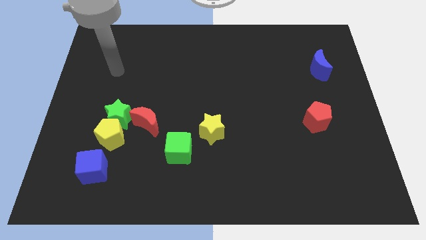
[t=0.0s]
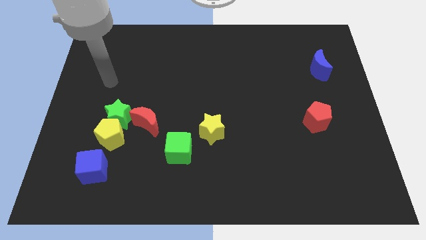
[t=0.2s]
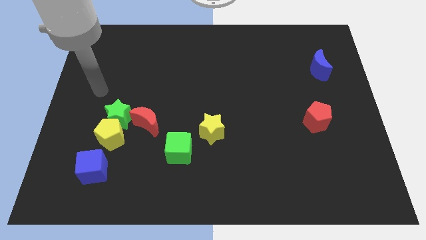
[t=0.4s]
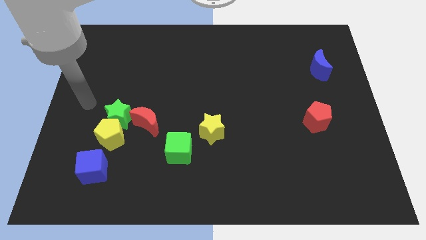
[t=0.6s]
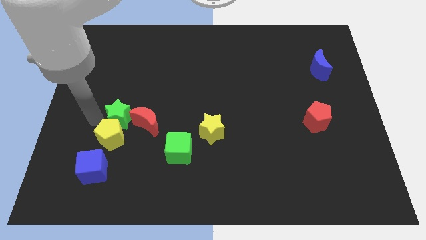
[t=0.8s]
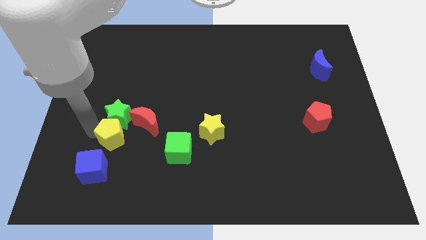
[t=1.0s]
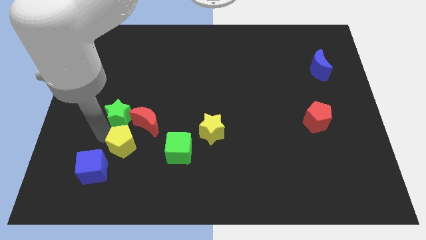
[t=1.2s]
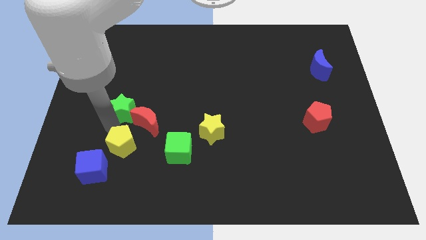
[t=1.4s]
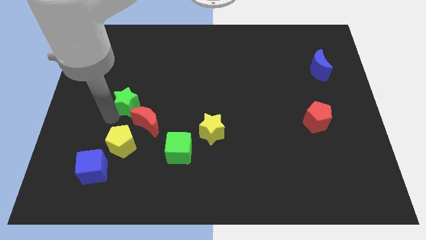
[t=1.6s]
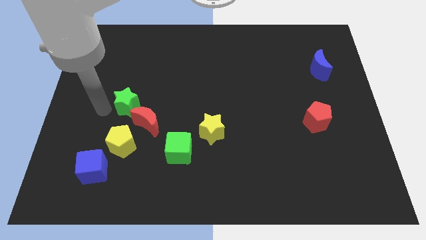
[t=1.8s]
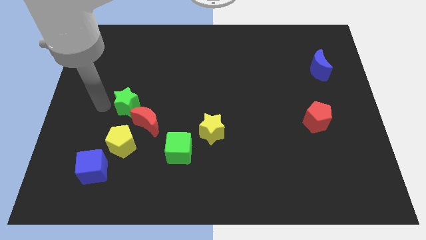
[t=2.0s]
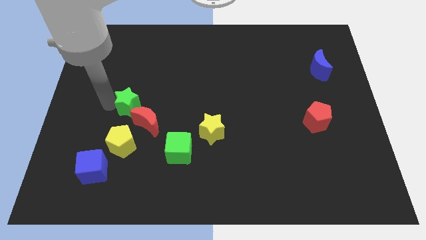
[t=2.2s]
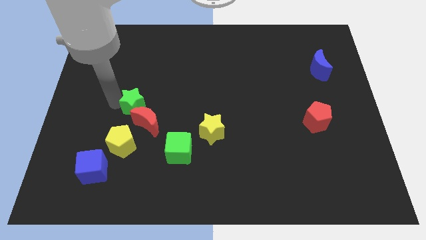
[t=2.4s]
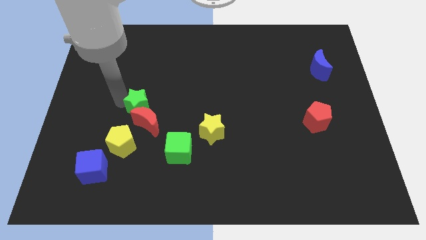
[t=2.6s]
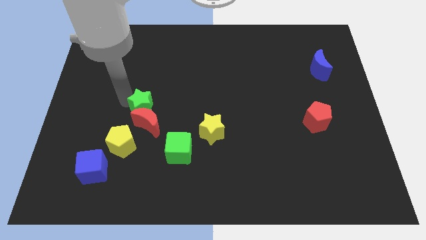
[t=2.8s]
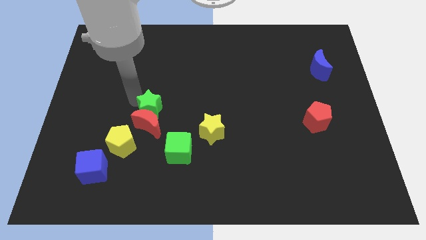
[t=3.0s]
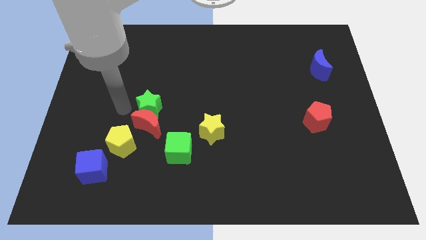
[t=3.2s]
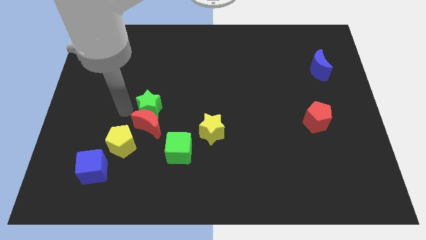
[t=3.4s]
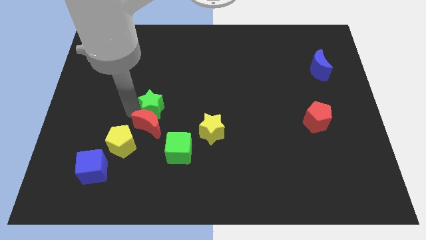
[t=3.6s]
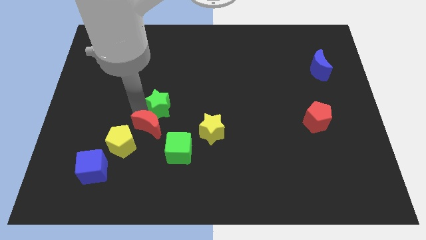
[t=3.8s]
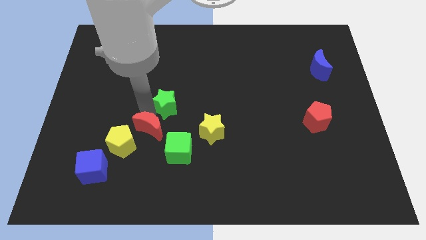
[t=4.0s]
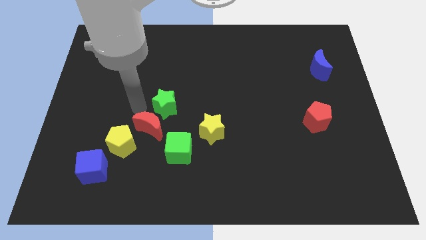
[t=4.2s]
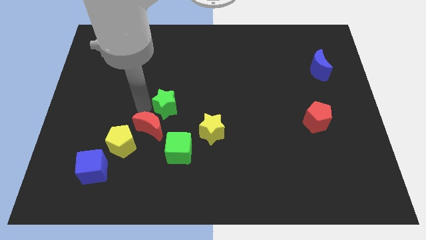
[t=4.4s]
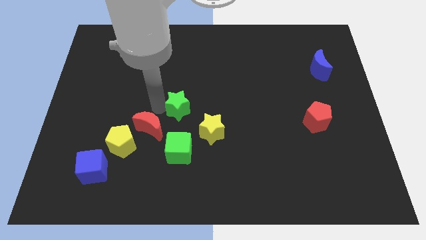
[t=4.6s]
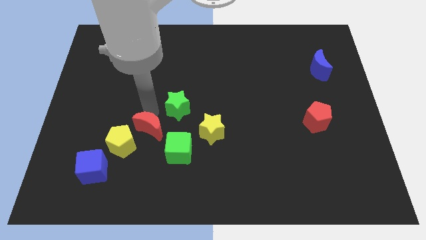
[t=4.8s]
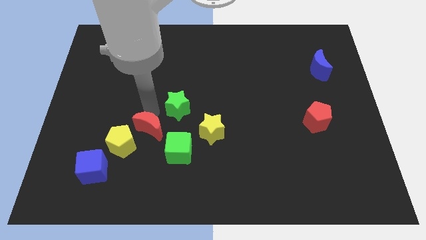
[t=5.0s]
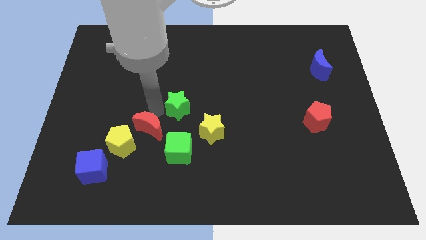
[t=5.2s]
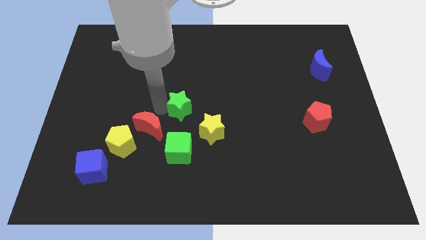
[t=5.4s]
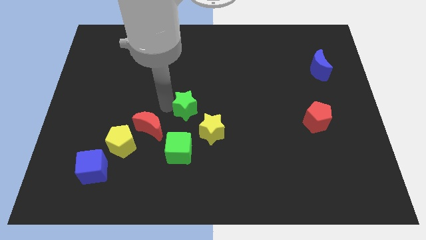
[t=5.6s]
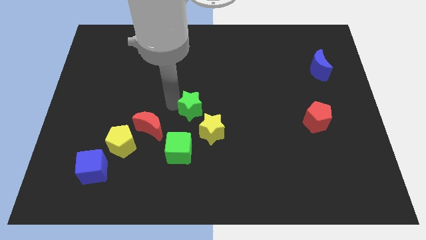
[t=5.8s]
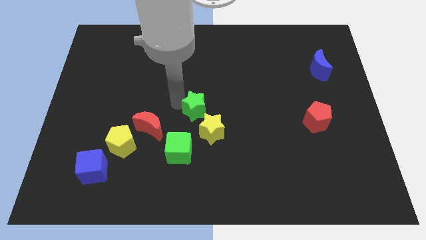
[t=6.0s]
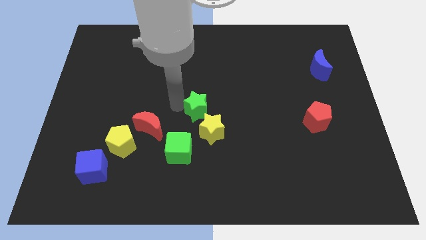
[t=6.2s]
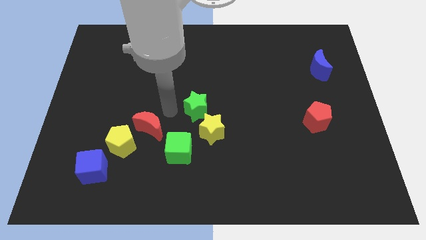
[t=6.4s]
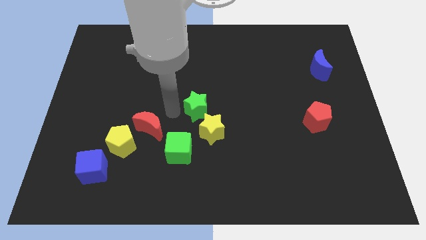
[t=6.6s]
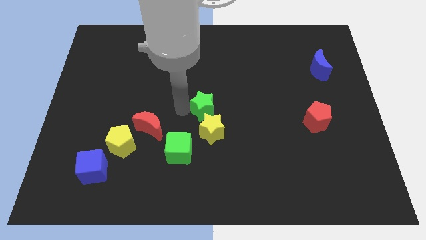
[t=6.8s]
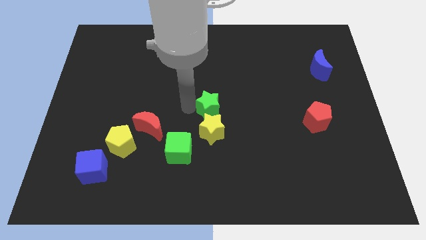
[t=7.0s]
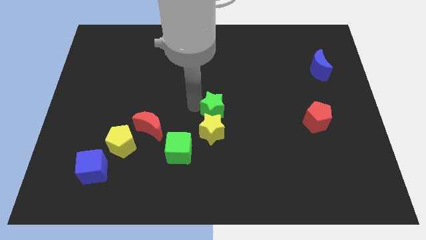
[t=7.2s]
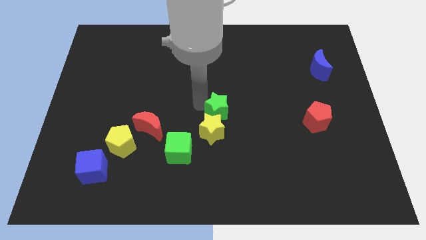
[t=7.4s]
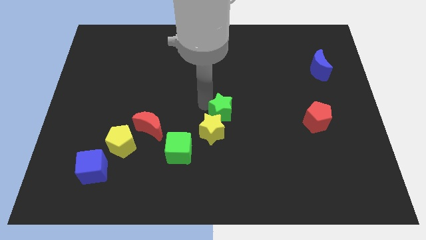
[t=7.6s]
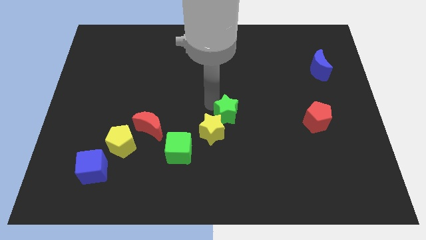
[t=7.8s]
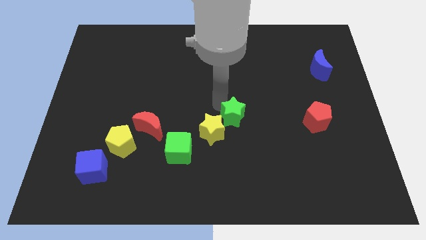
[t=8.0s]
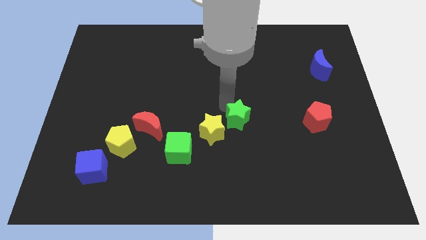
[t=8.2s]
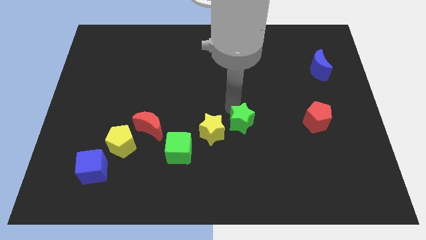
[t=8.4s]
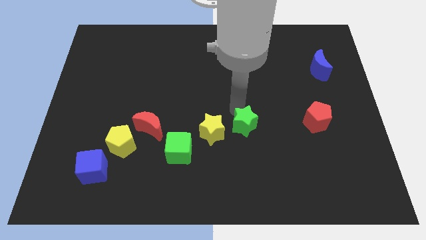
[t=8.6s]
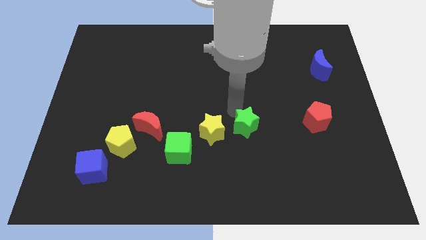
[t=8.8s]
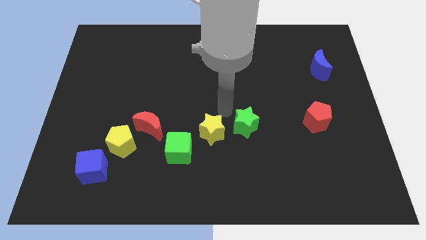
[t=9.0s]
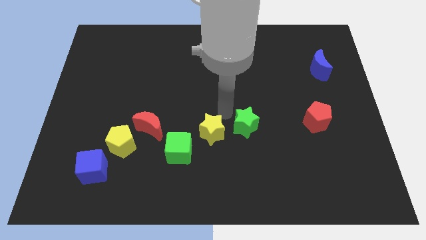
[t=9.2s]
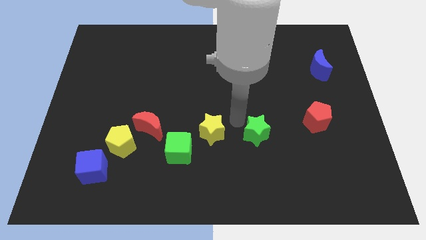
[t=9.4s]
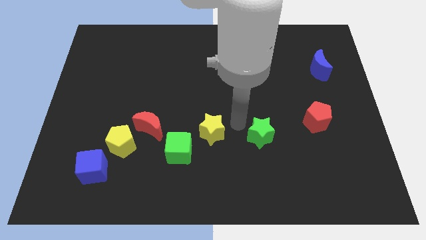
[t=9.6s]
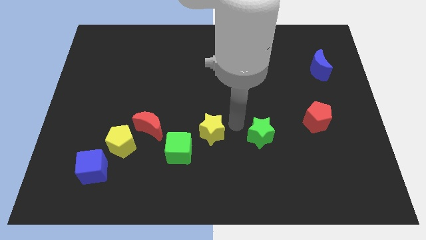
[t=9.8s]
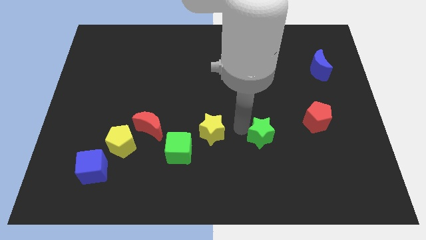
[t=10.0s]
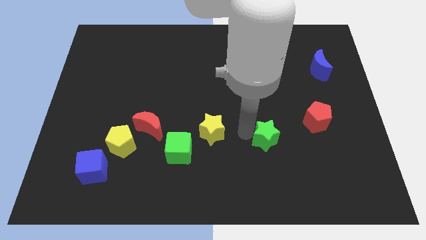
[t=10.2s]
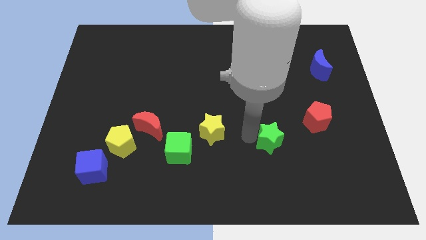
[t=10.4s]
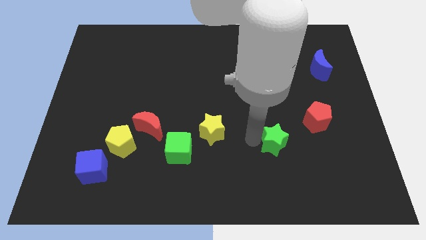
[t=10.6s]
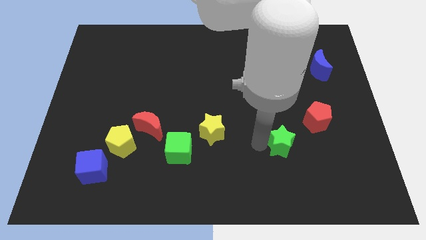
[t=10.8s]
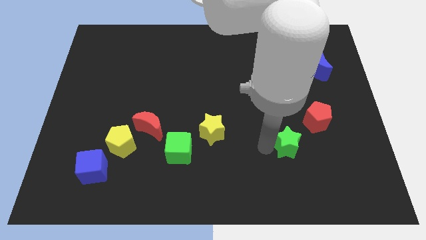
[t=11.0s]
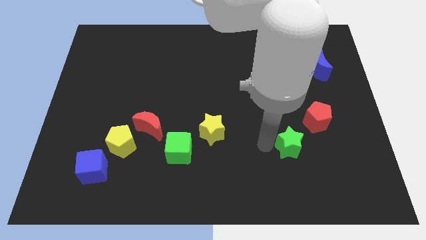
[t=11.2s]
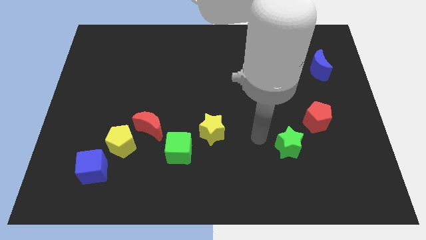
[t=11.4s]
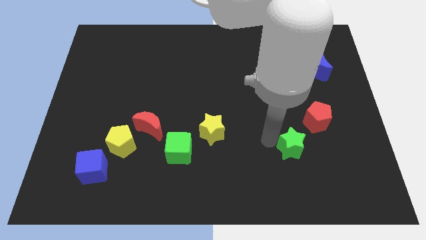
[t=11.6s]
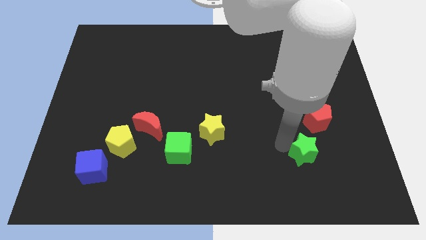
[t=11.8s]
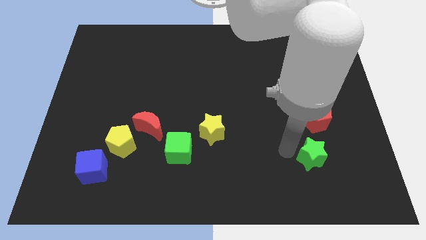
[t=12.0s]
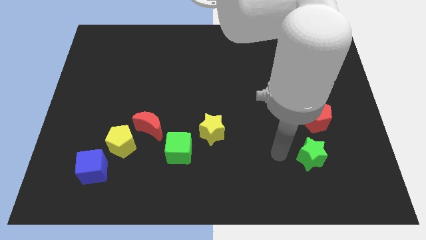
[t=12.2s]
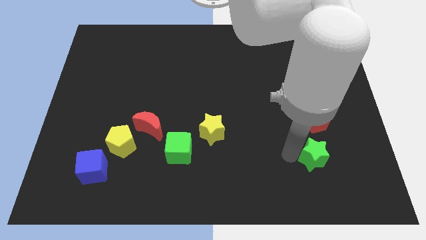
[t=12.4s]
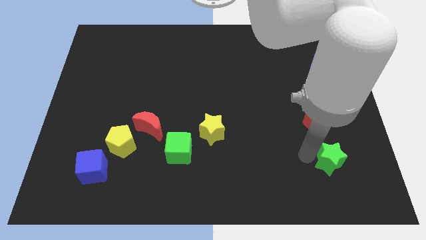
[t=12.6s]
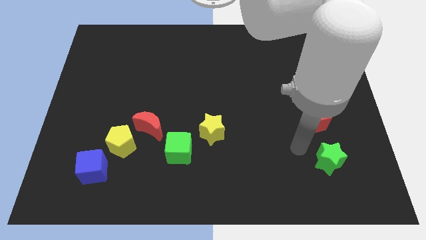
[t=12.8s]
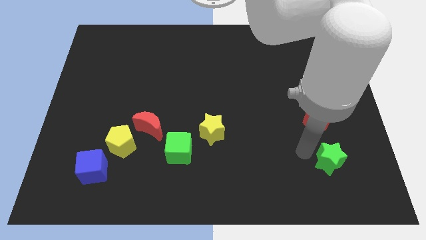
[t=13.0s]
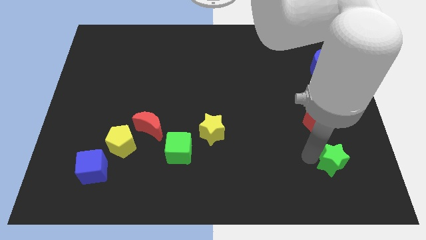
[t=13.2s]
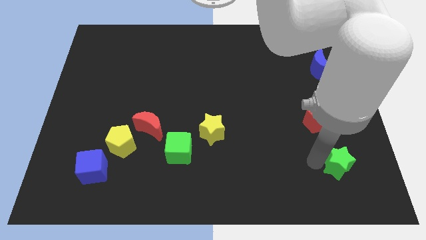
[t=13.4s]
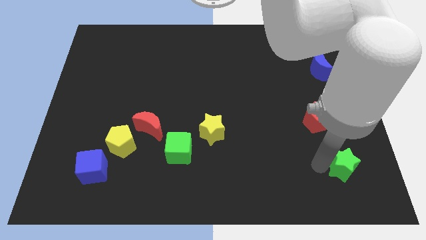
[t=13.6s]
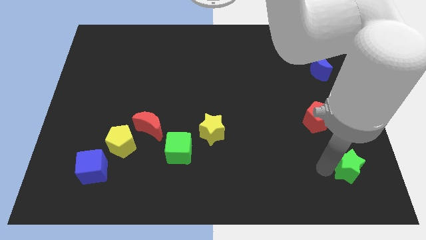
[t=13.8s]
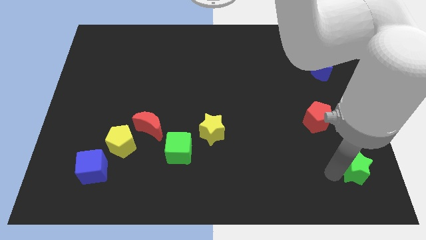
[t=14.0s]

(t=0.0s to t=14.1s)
move the green star to the bottom right
